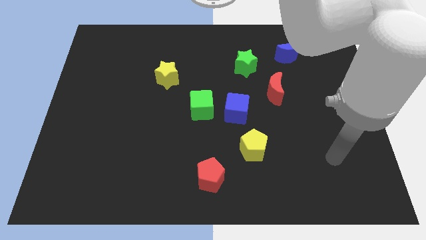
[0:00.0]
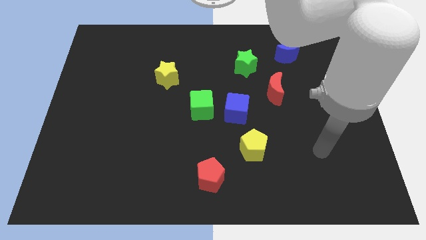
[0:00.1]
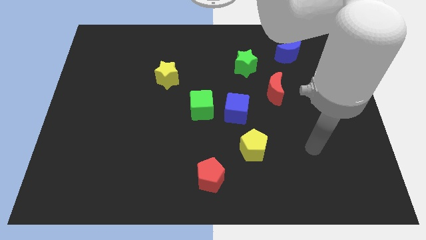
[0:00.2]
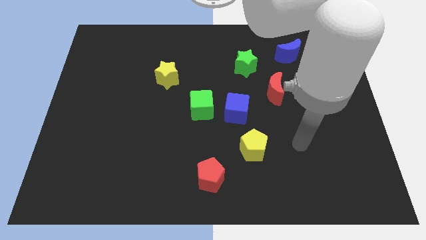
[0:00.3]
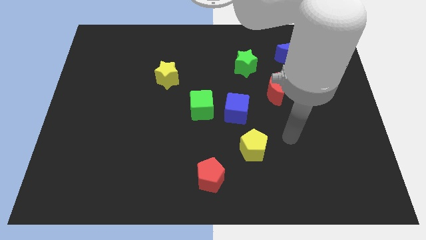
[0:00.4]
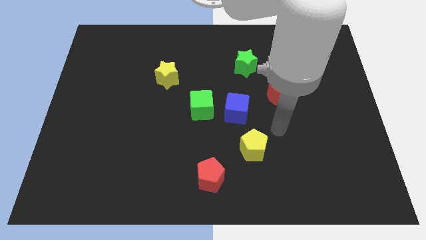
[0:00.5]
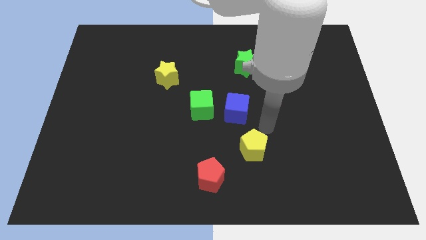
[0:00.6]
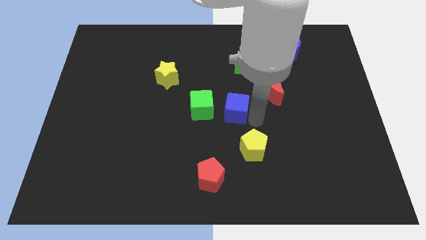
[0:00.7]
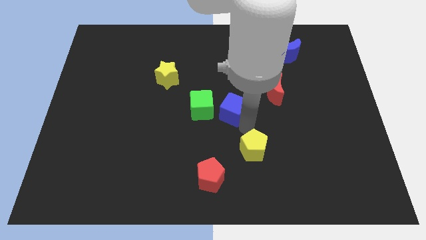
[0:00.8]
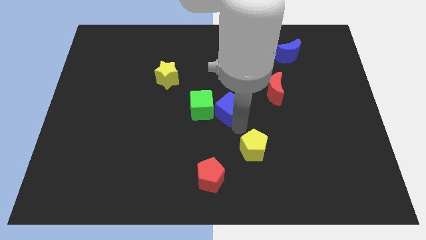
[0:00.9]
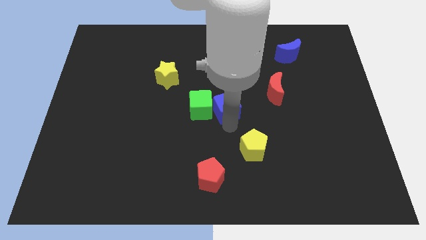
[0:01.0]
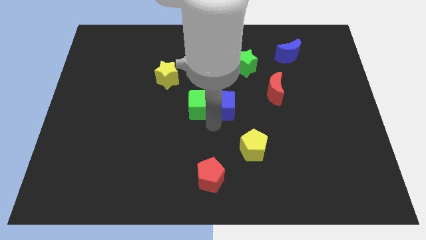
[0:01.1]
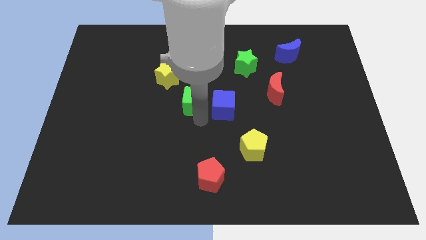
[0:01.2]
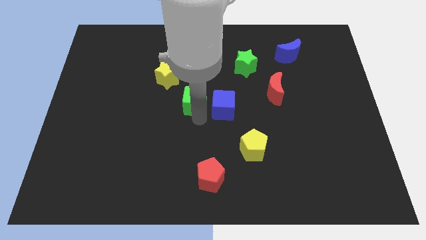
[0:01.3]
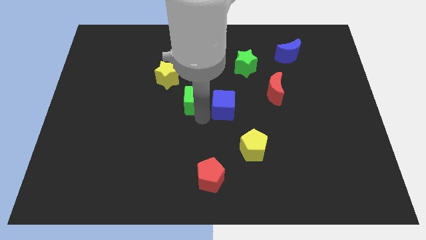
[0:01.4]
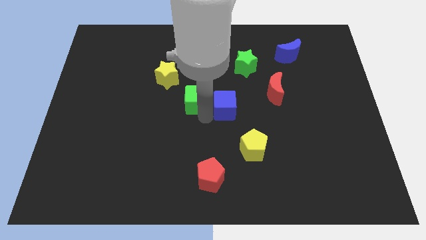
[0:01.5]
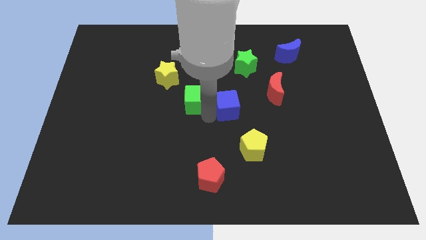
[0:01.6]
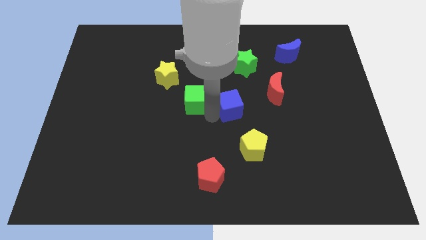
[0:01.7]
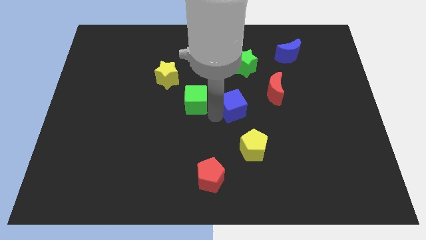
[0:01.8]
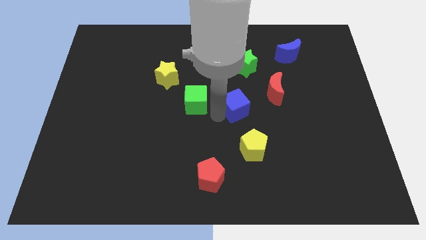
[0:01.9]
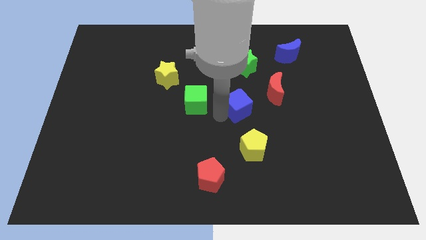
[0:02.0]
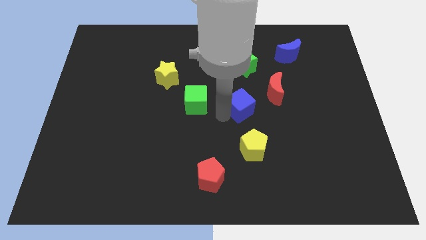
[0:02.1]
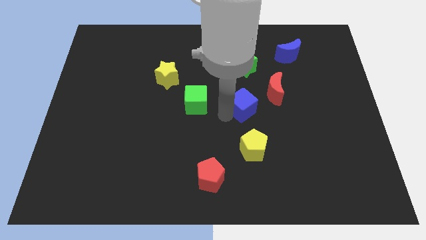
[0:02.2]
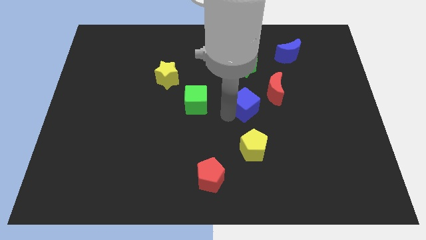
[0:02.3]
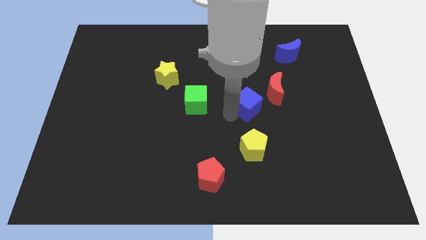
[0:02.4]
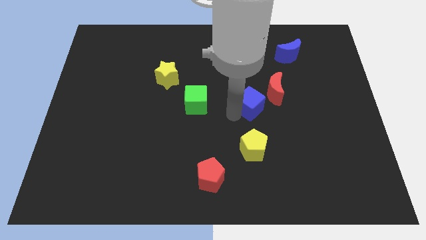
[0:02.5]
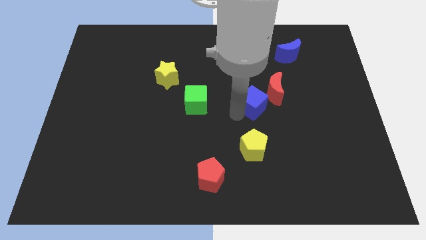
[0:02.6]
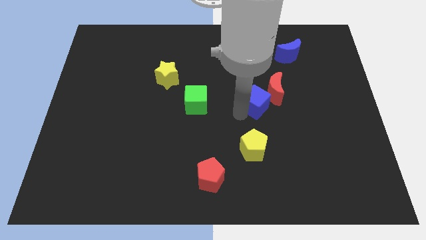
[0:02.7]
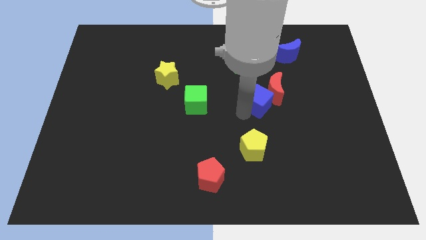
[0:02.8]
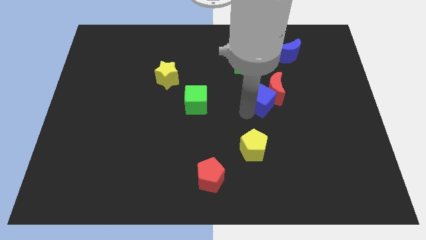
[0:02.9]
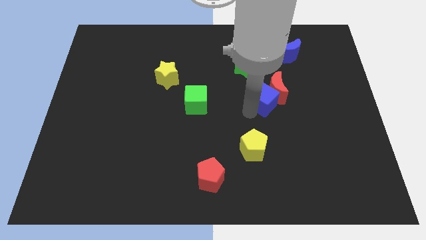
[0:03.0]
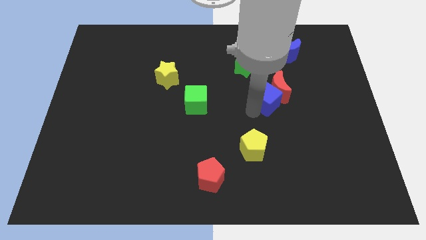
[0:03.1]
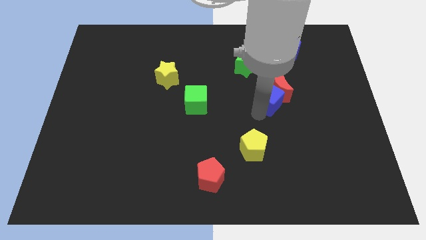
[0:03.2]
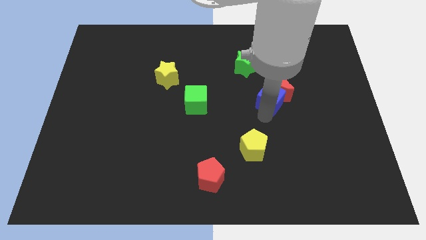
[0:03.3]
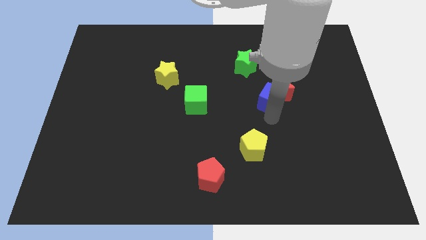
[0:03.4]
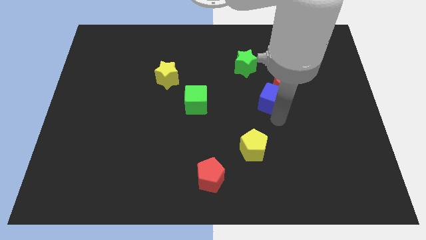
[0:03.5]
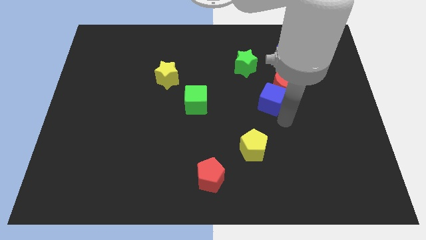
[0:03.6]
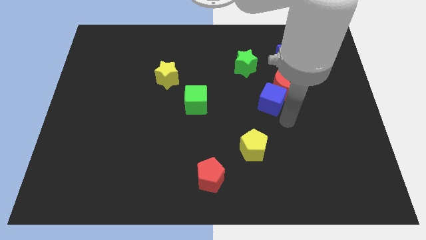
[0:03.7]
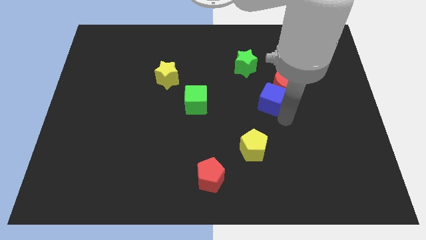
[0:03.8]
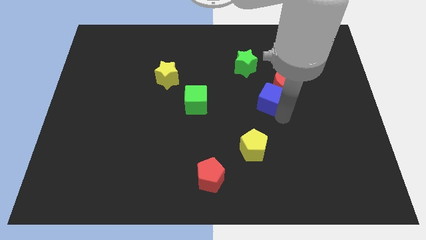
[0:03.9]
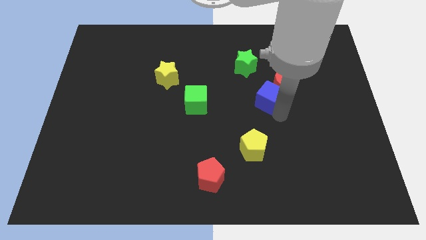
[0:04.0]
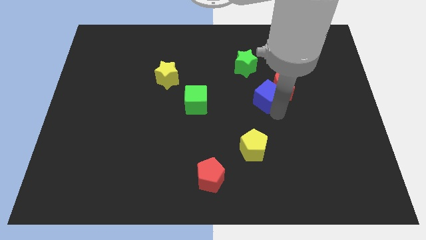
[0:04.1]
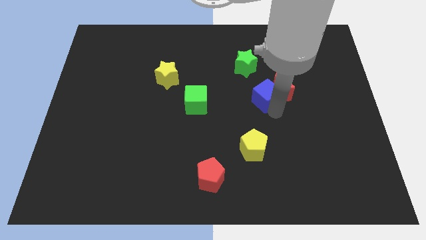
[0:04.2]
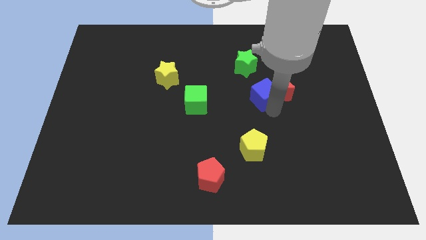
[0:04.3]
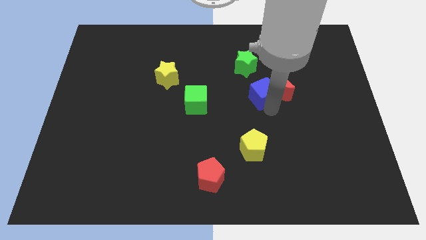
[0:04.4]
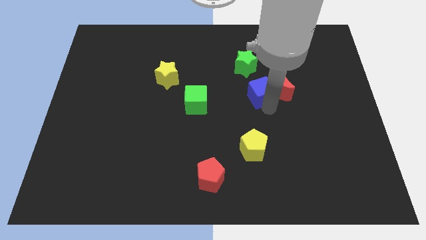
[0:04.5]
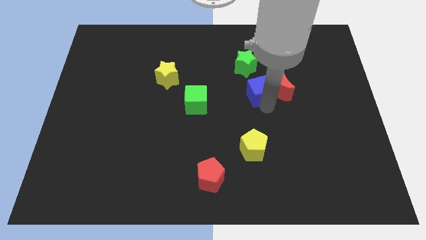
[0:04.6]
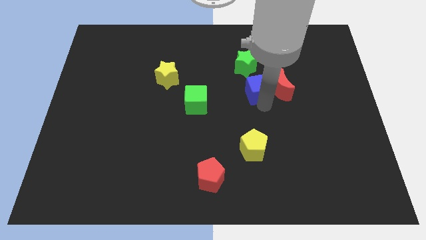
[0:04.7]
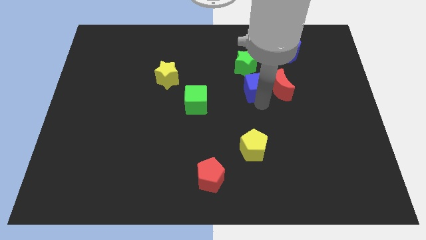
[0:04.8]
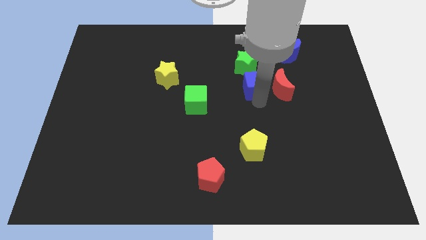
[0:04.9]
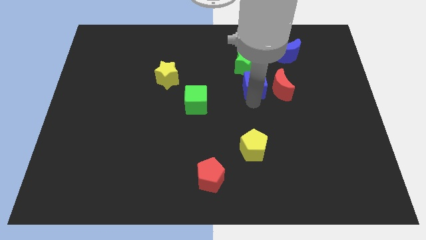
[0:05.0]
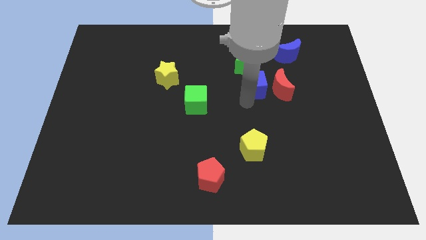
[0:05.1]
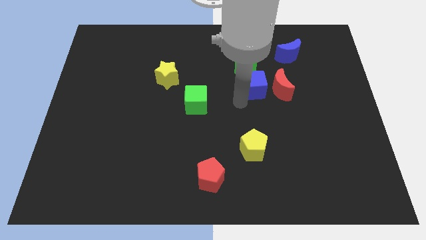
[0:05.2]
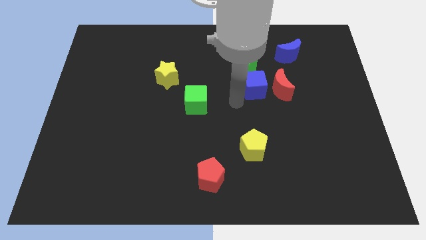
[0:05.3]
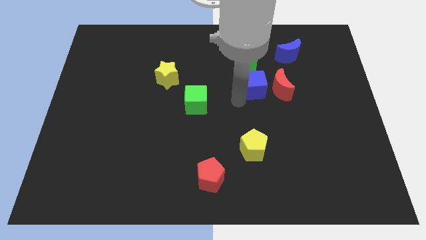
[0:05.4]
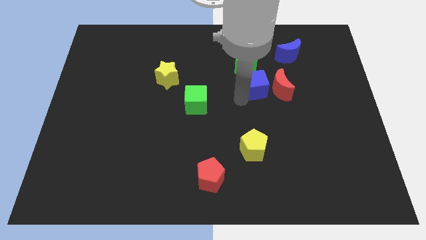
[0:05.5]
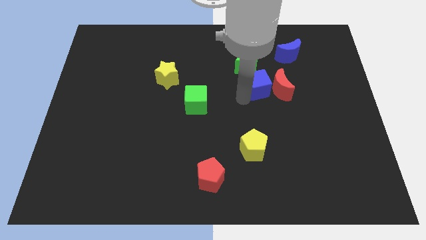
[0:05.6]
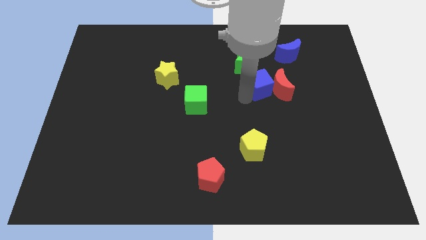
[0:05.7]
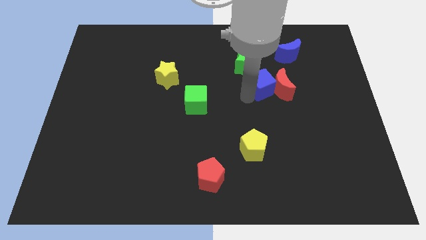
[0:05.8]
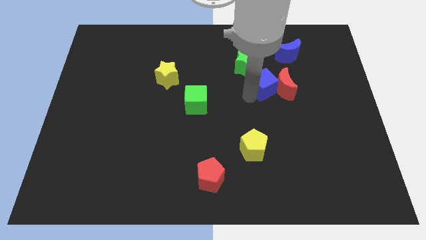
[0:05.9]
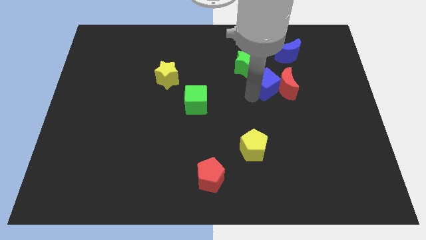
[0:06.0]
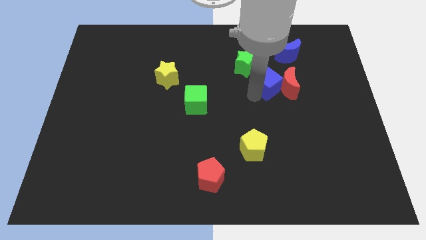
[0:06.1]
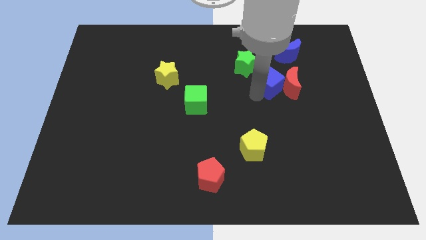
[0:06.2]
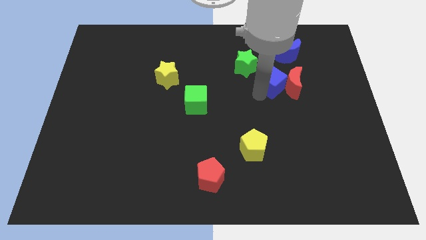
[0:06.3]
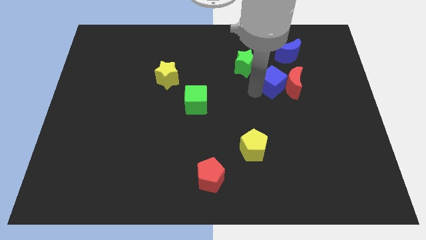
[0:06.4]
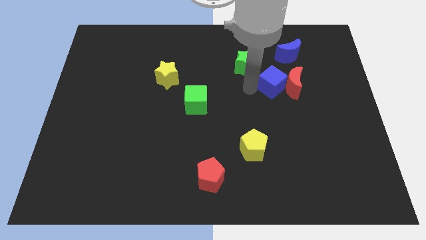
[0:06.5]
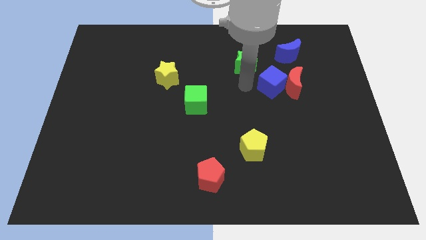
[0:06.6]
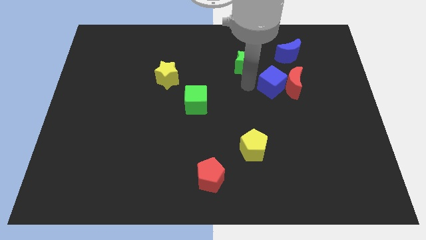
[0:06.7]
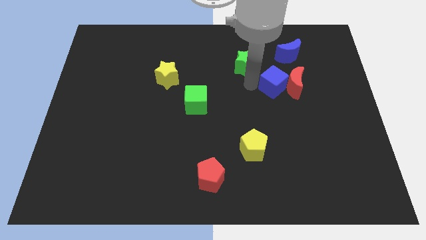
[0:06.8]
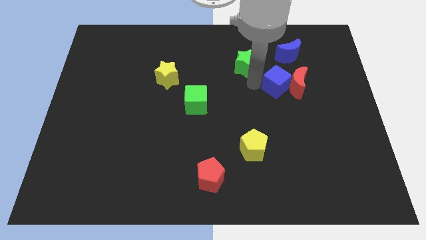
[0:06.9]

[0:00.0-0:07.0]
move the blue cube to the bottom of the blue moon

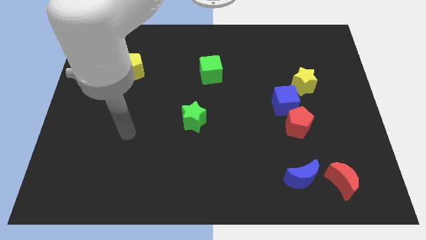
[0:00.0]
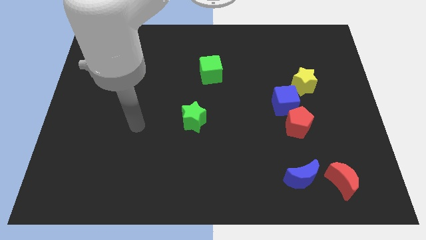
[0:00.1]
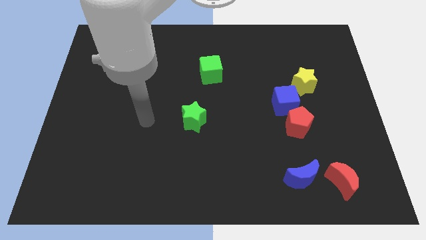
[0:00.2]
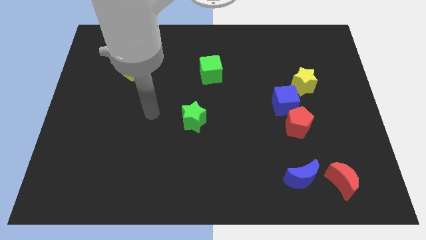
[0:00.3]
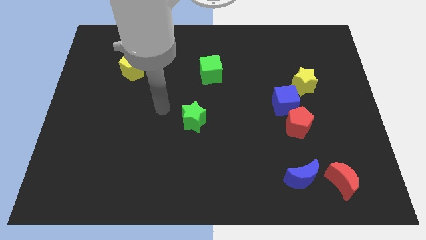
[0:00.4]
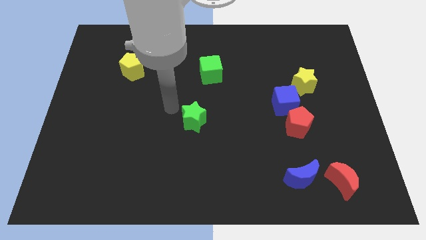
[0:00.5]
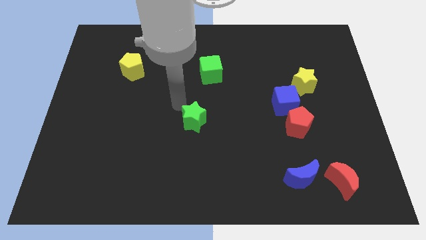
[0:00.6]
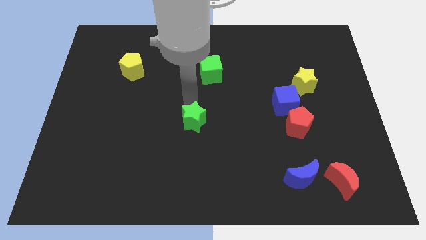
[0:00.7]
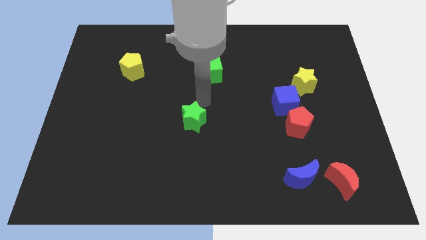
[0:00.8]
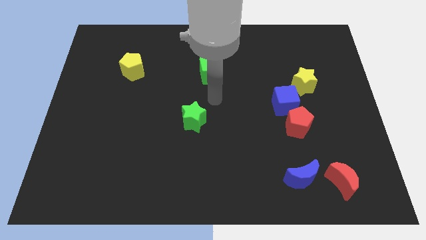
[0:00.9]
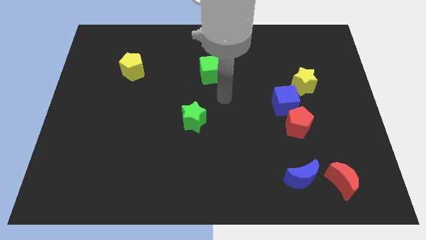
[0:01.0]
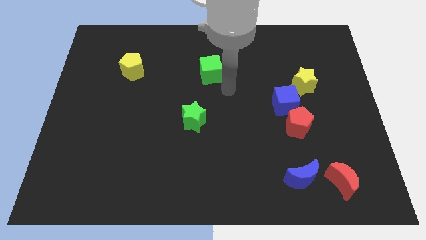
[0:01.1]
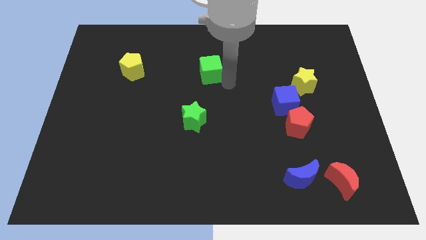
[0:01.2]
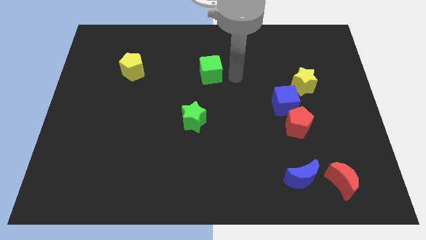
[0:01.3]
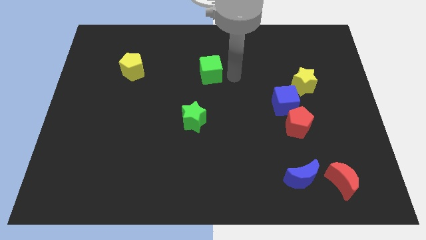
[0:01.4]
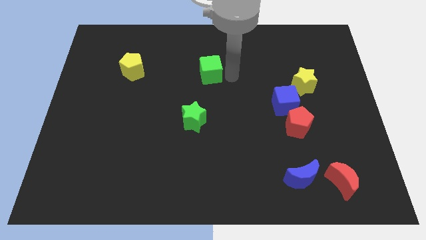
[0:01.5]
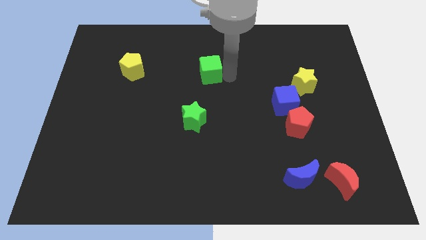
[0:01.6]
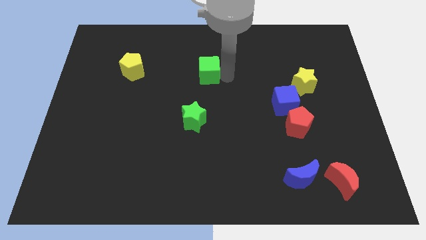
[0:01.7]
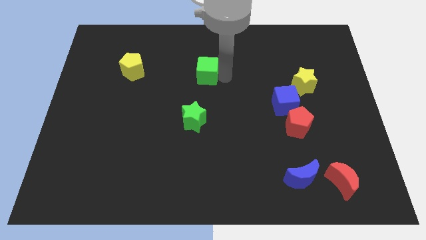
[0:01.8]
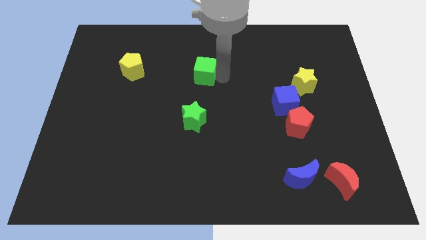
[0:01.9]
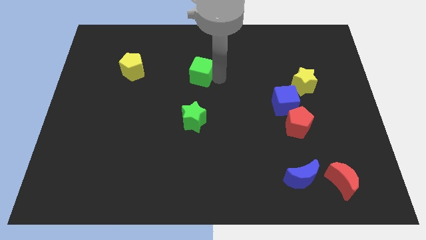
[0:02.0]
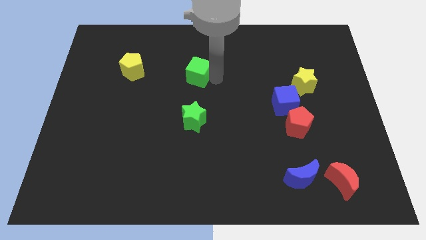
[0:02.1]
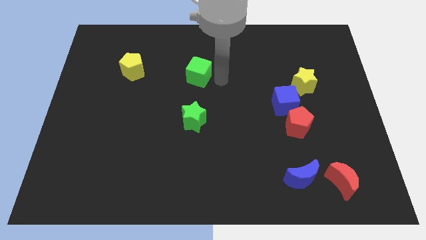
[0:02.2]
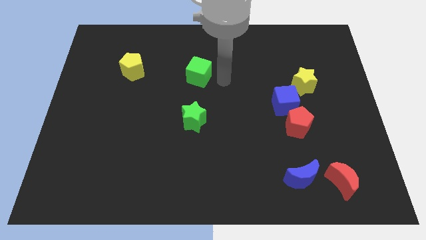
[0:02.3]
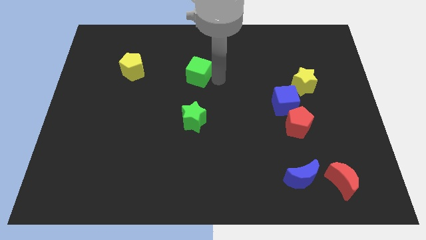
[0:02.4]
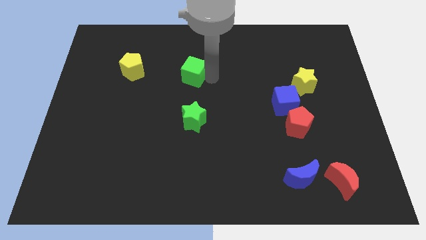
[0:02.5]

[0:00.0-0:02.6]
put the green cube to the right of the yellow pentagon
